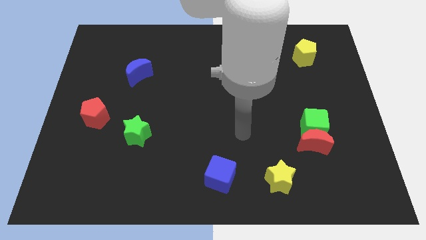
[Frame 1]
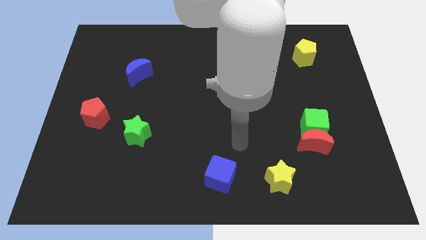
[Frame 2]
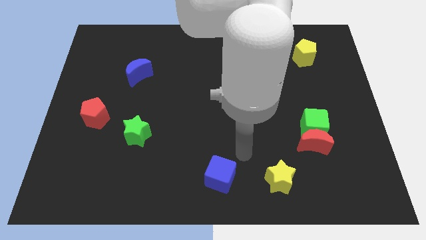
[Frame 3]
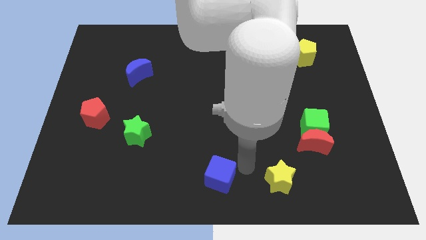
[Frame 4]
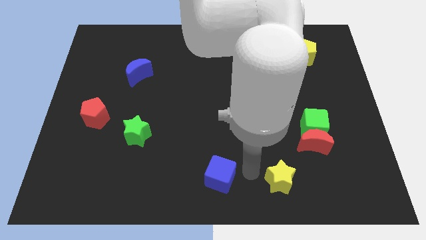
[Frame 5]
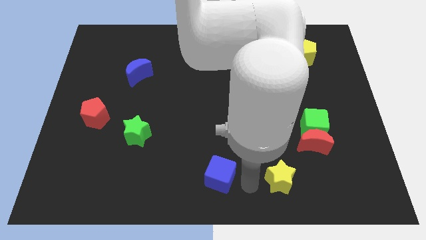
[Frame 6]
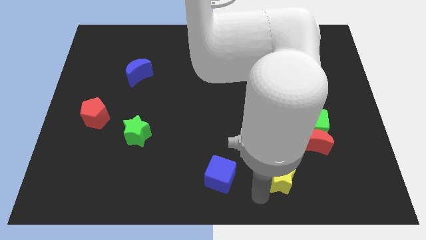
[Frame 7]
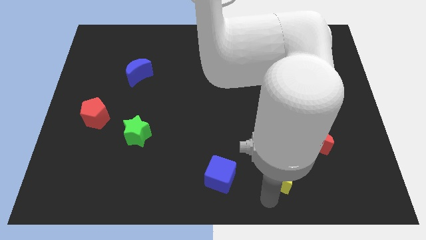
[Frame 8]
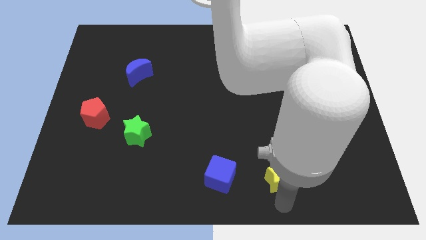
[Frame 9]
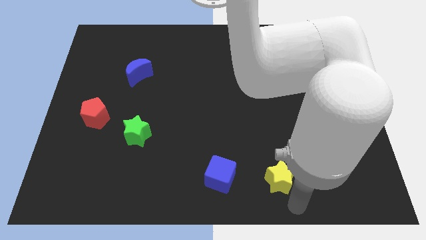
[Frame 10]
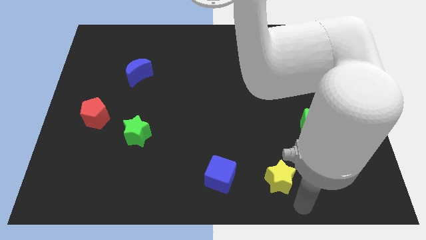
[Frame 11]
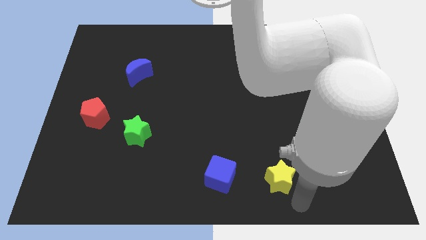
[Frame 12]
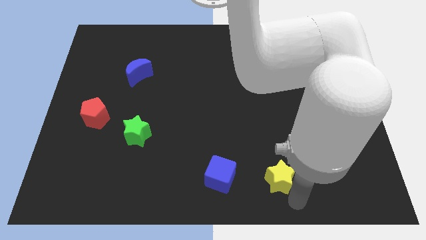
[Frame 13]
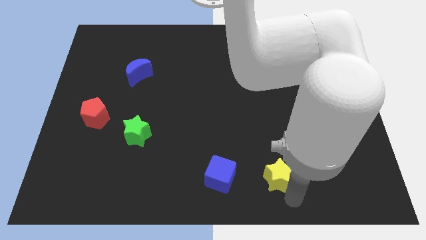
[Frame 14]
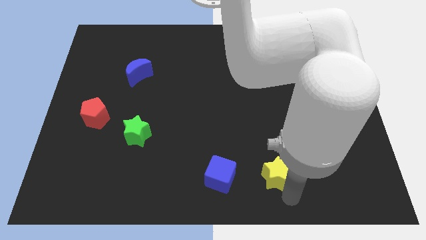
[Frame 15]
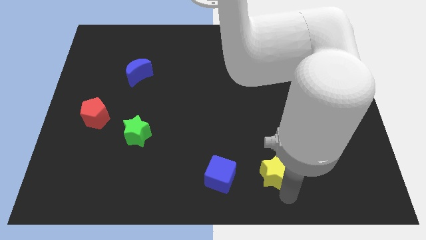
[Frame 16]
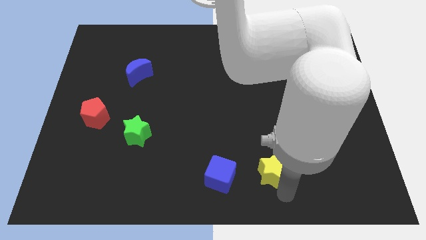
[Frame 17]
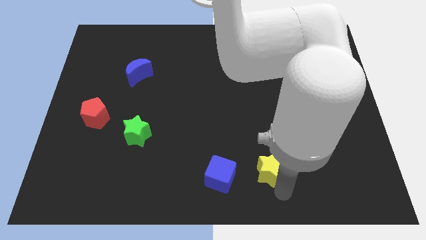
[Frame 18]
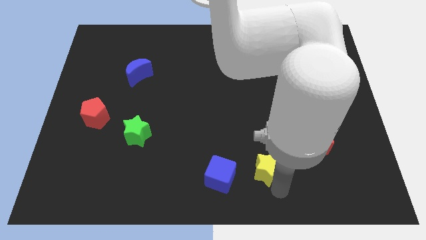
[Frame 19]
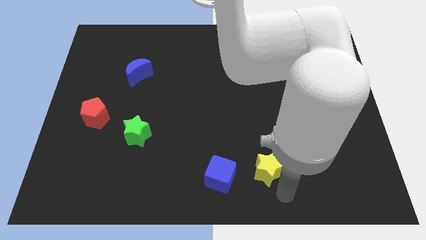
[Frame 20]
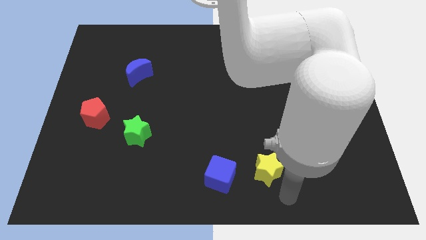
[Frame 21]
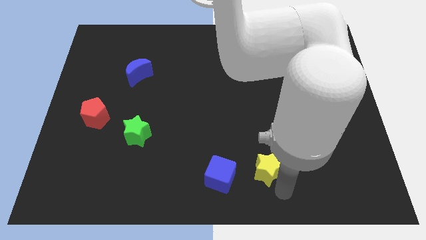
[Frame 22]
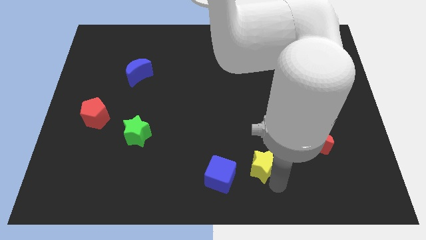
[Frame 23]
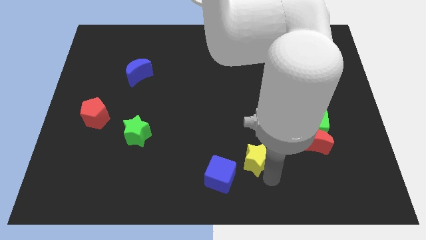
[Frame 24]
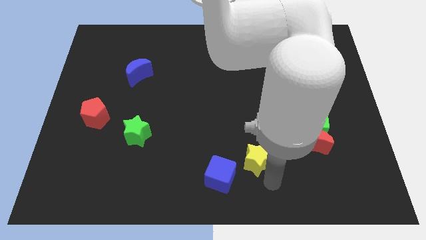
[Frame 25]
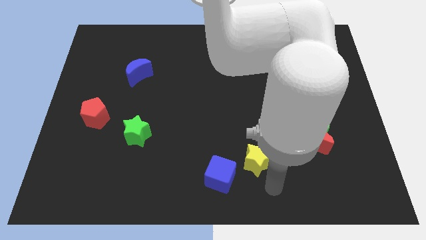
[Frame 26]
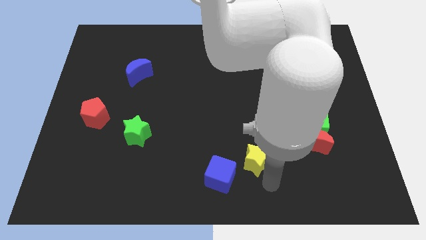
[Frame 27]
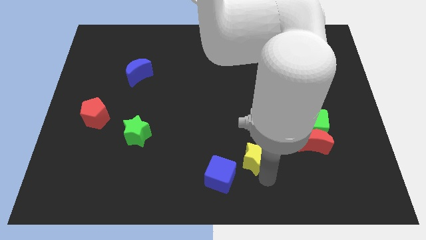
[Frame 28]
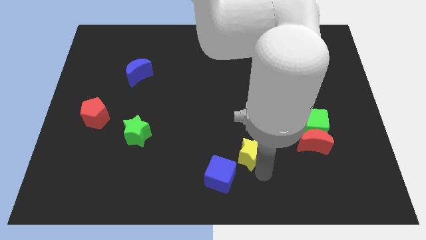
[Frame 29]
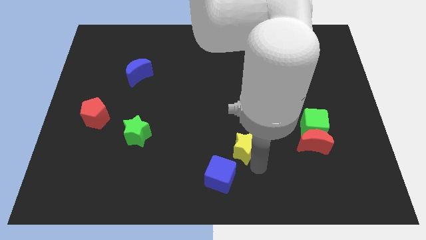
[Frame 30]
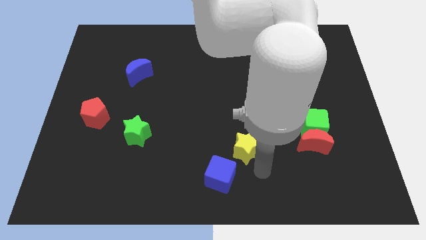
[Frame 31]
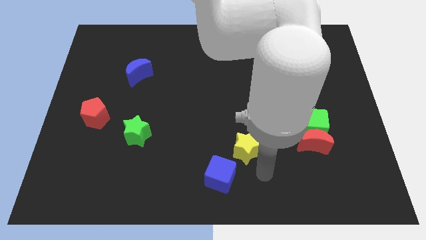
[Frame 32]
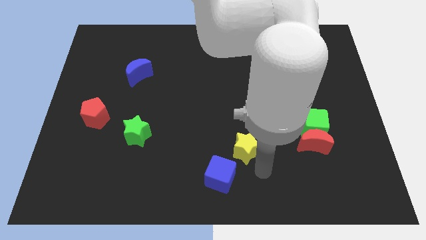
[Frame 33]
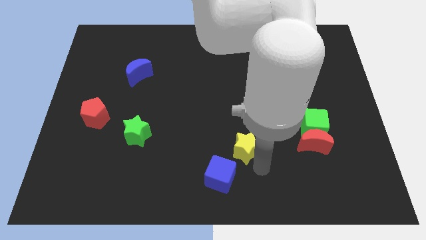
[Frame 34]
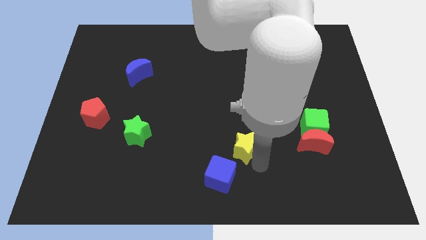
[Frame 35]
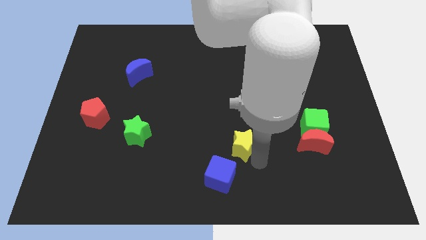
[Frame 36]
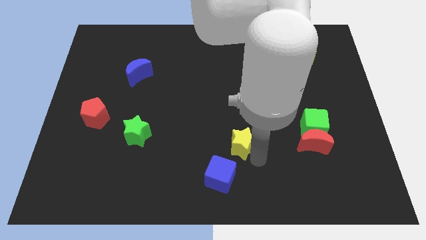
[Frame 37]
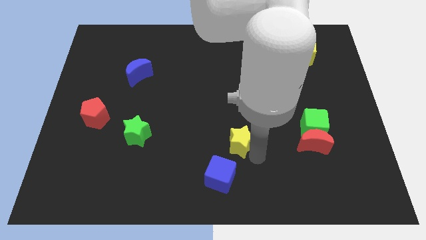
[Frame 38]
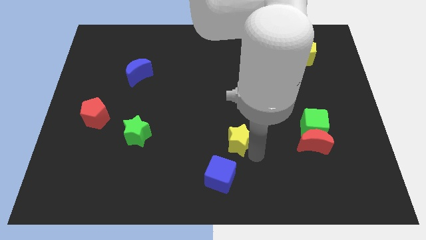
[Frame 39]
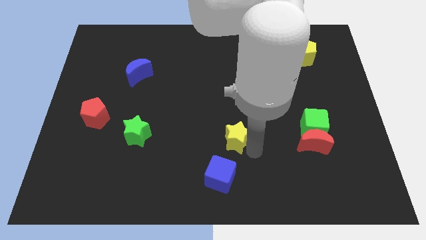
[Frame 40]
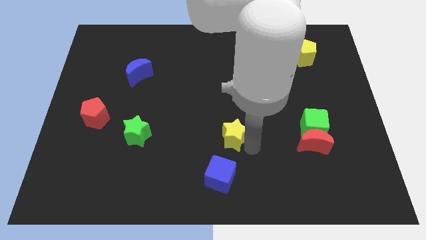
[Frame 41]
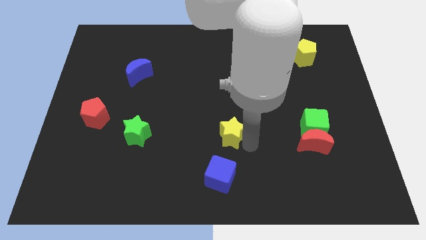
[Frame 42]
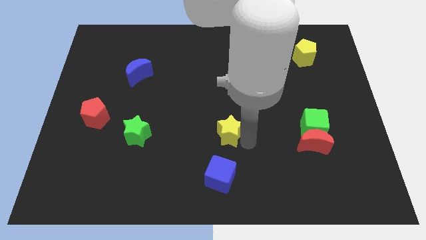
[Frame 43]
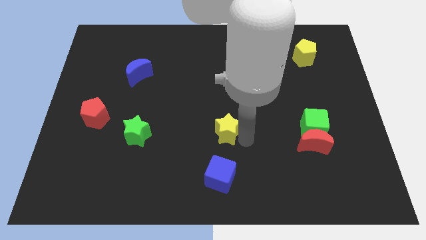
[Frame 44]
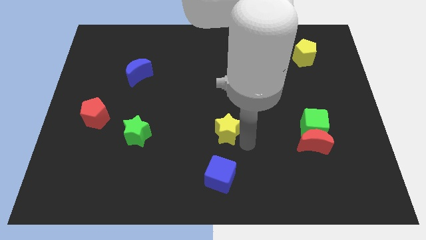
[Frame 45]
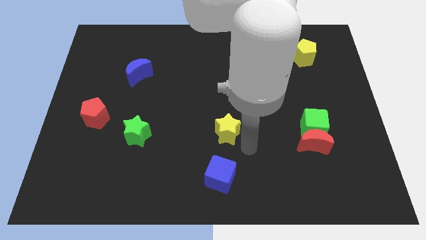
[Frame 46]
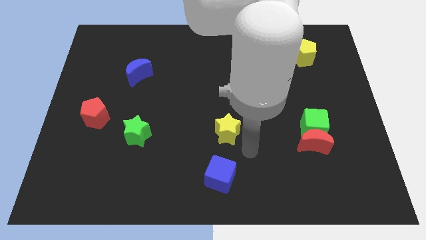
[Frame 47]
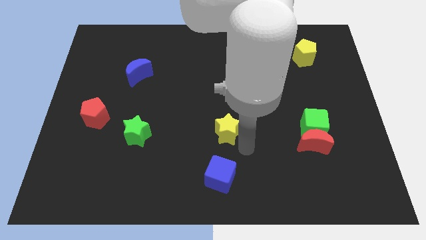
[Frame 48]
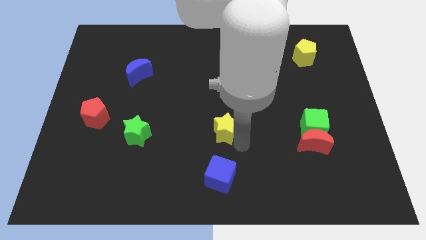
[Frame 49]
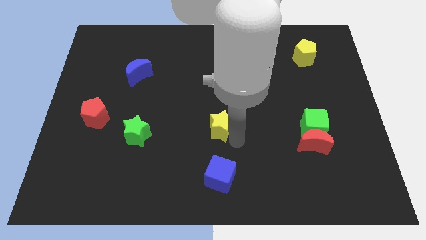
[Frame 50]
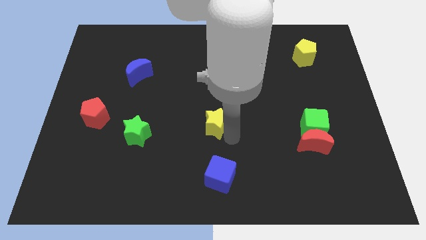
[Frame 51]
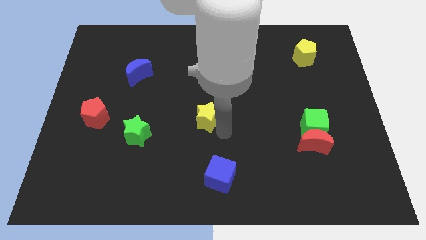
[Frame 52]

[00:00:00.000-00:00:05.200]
move the yellow star upwards and to the left diagonally

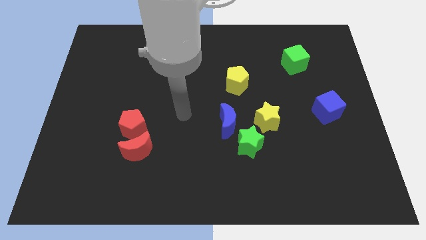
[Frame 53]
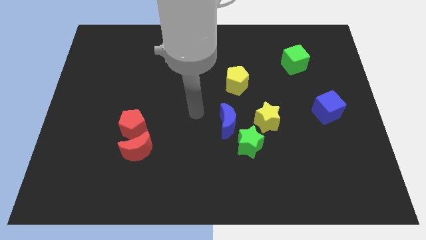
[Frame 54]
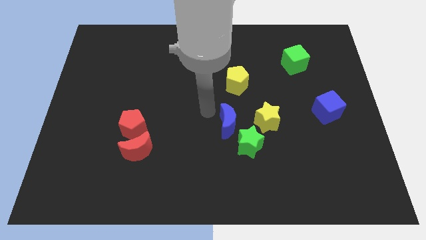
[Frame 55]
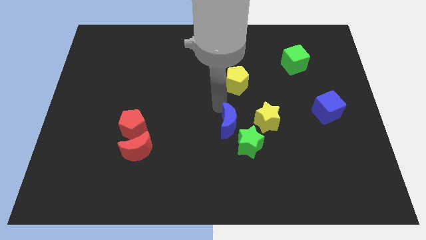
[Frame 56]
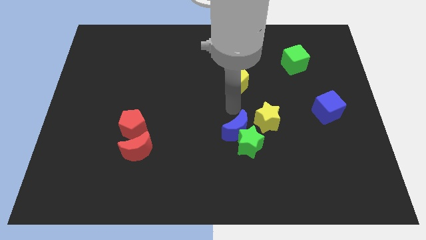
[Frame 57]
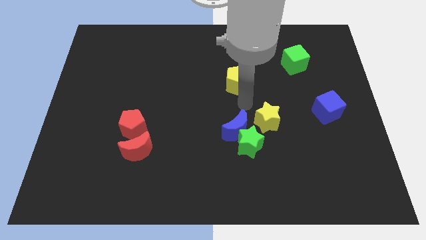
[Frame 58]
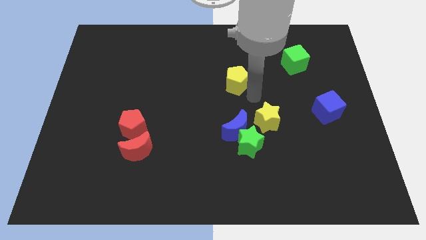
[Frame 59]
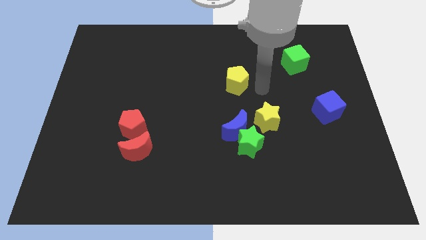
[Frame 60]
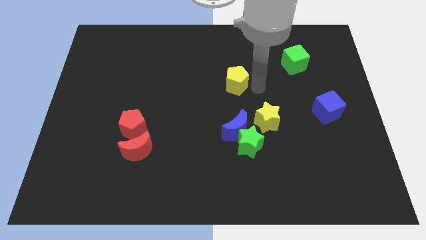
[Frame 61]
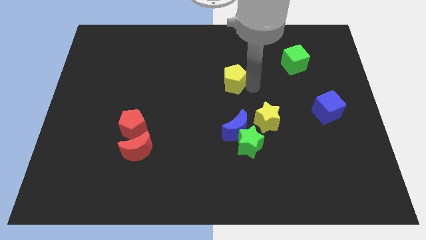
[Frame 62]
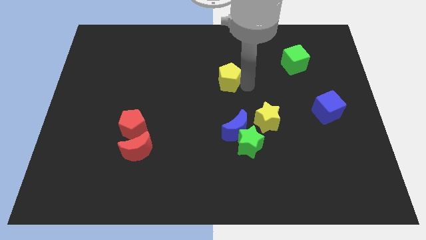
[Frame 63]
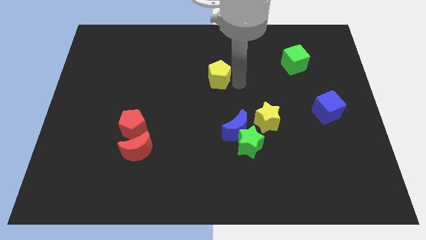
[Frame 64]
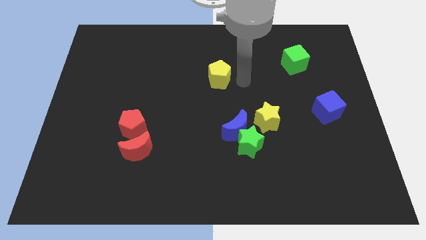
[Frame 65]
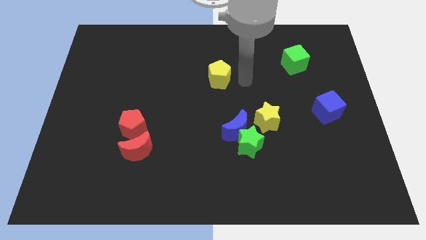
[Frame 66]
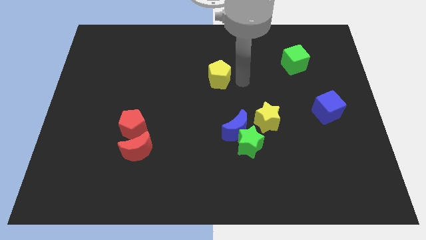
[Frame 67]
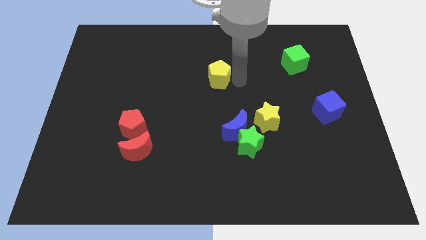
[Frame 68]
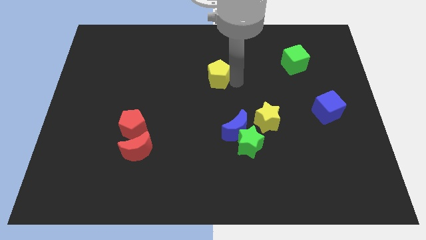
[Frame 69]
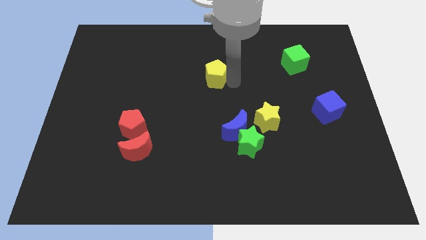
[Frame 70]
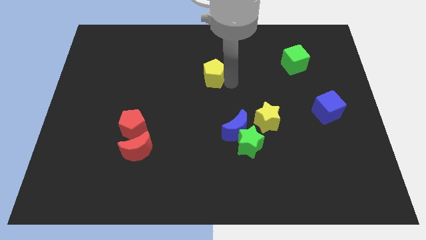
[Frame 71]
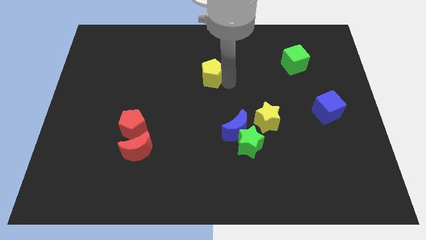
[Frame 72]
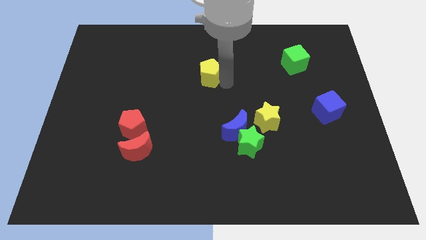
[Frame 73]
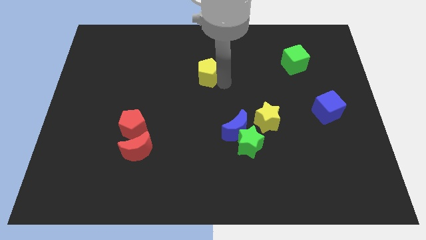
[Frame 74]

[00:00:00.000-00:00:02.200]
push the yellow pentagon slightly left

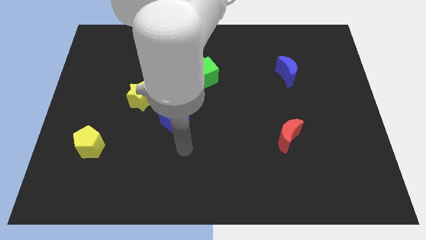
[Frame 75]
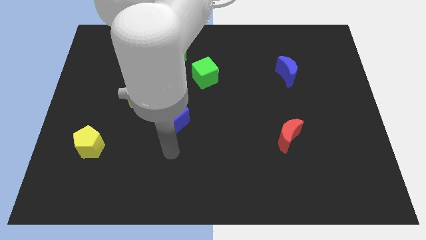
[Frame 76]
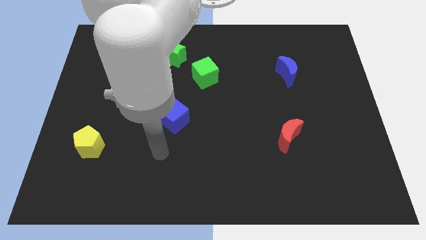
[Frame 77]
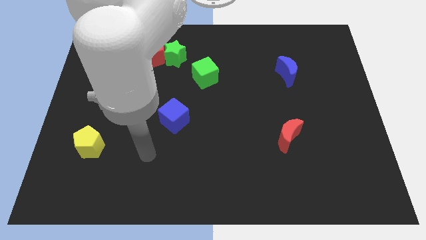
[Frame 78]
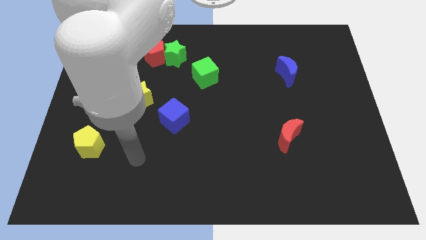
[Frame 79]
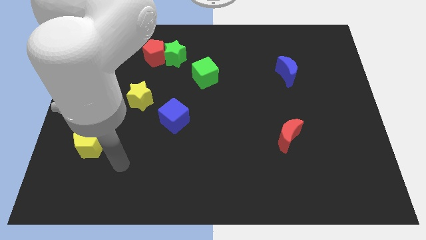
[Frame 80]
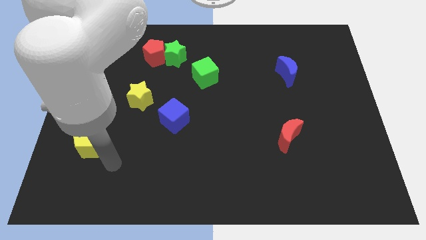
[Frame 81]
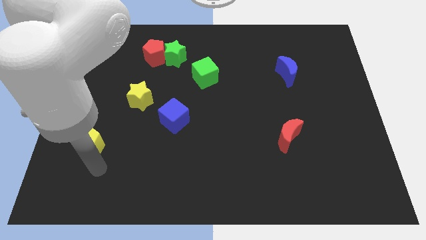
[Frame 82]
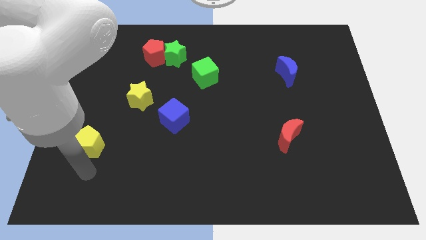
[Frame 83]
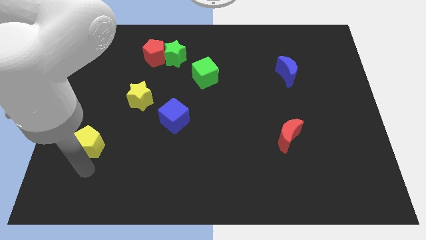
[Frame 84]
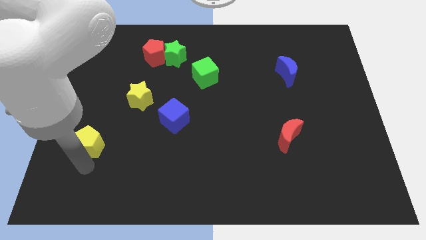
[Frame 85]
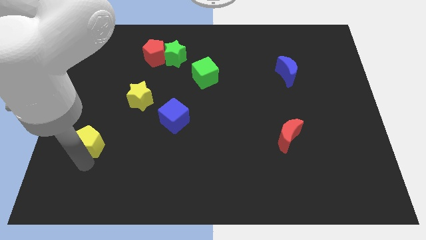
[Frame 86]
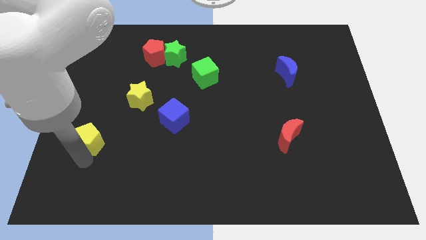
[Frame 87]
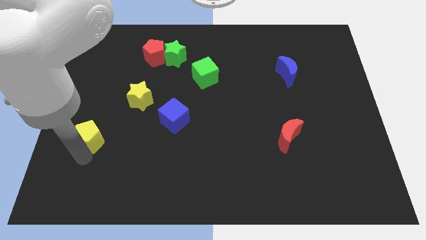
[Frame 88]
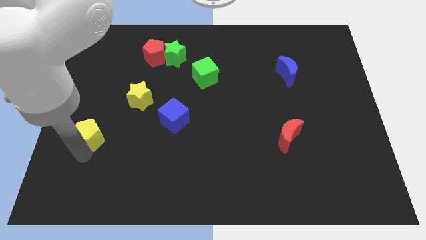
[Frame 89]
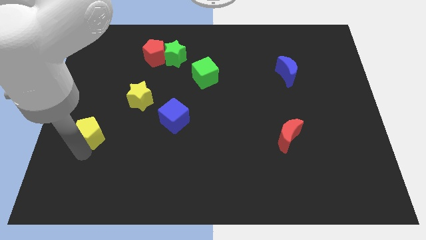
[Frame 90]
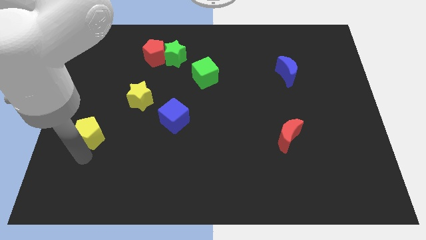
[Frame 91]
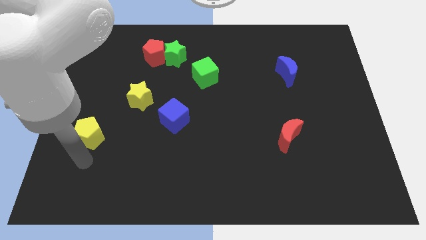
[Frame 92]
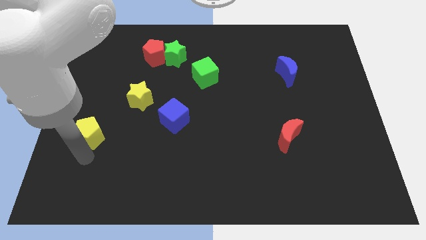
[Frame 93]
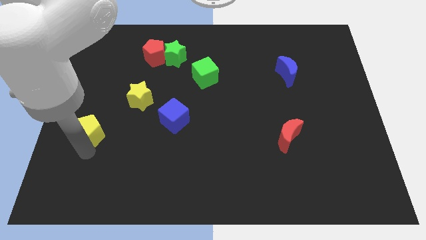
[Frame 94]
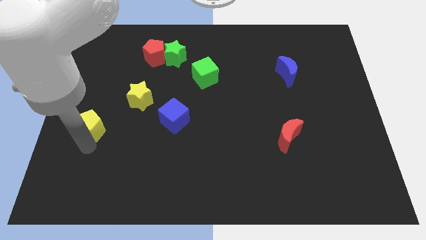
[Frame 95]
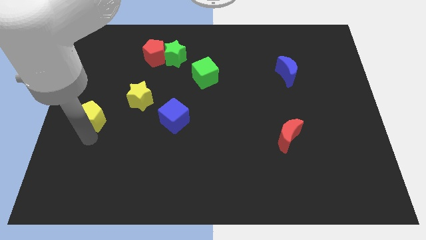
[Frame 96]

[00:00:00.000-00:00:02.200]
slide the yellow pentagon up slightly
